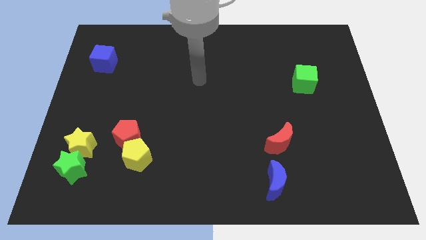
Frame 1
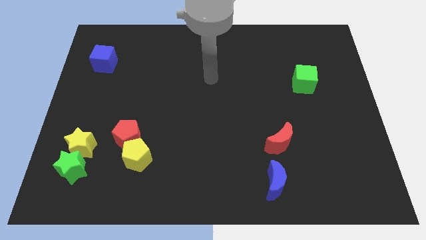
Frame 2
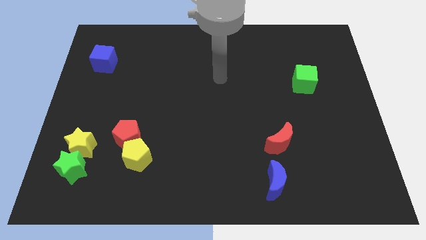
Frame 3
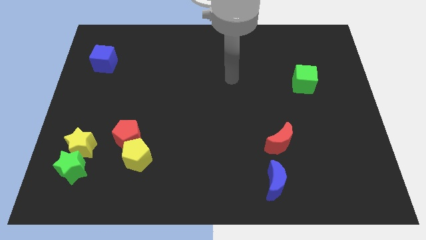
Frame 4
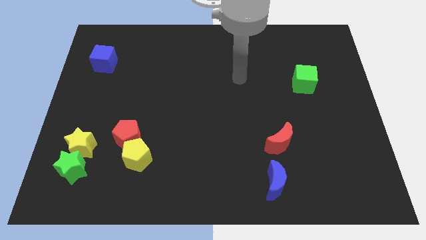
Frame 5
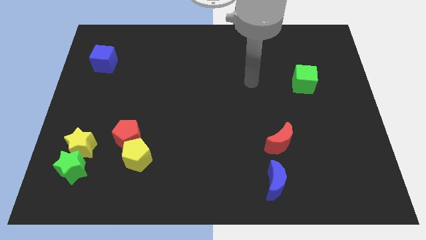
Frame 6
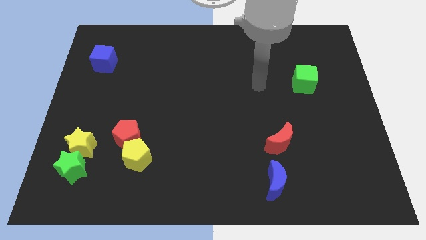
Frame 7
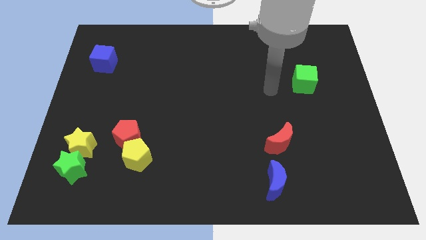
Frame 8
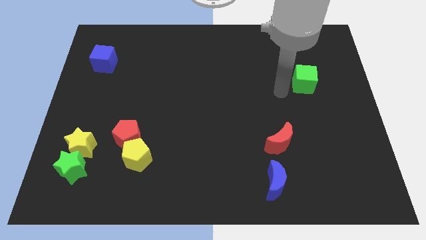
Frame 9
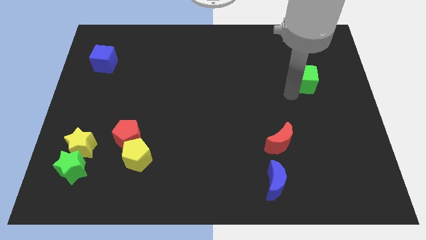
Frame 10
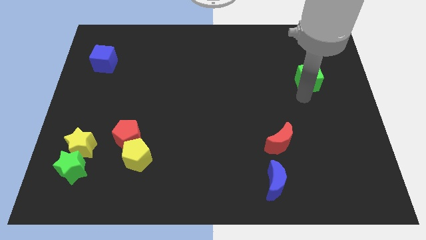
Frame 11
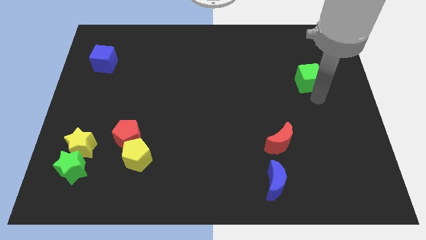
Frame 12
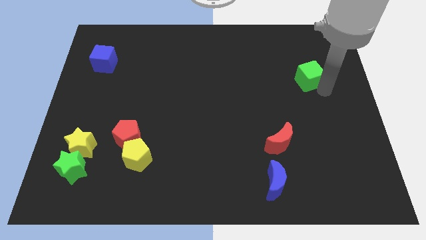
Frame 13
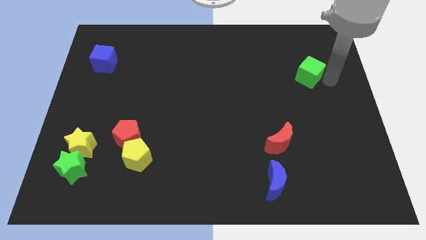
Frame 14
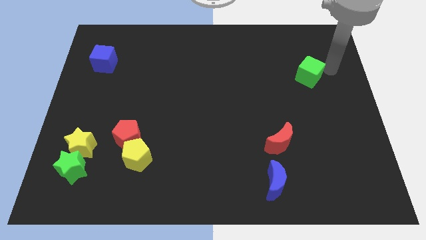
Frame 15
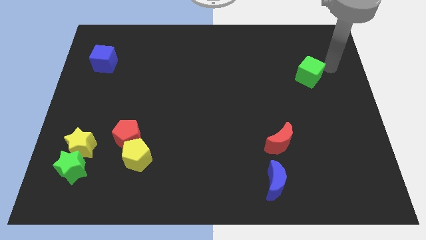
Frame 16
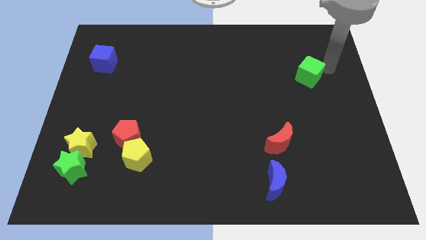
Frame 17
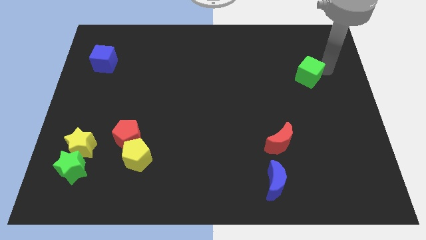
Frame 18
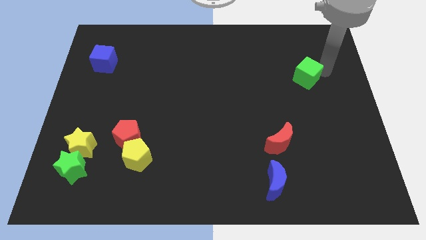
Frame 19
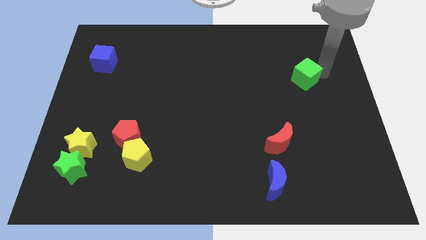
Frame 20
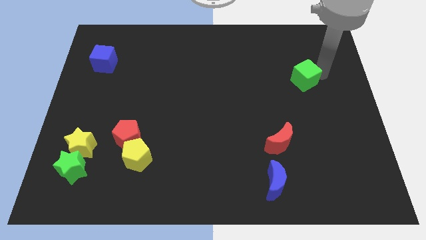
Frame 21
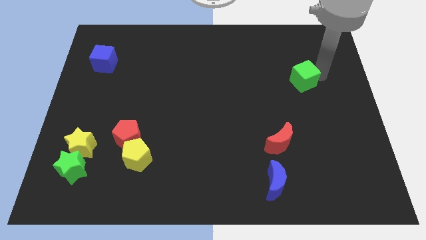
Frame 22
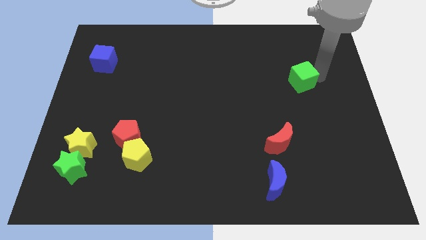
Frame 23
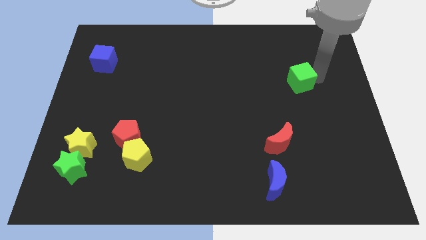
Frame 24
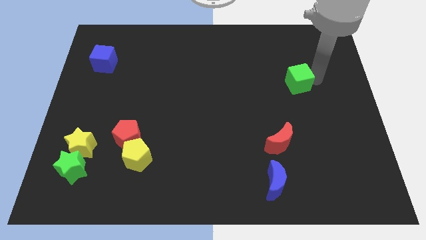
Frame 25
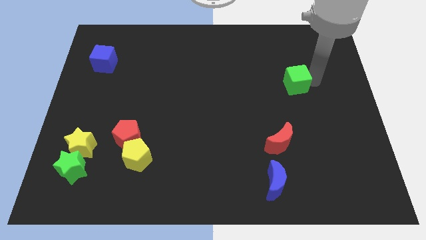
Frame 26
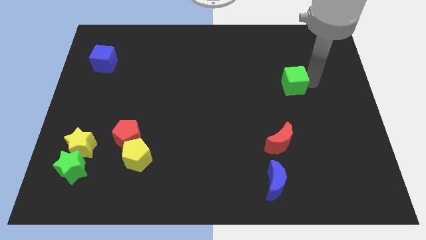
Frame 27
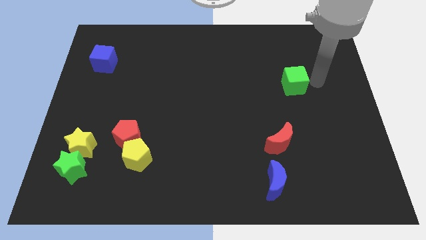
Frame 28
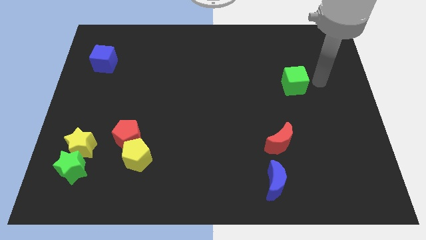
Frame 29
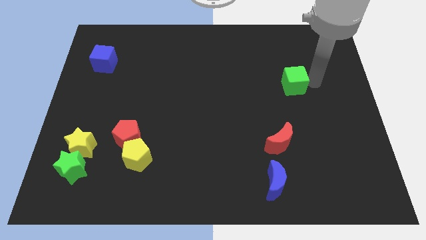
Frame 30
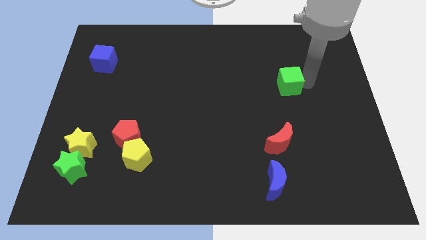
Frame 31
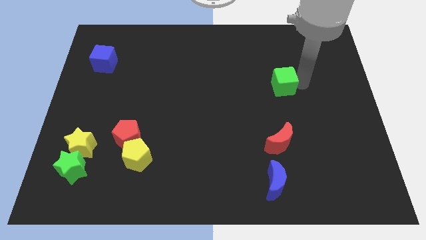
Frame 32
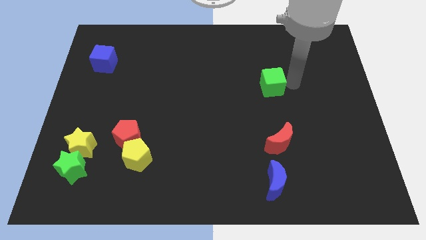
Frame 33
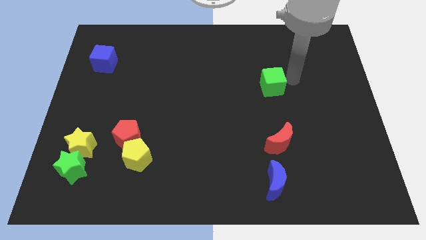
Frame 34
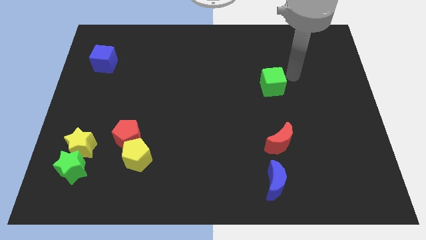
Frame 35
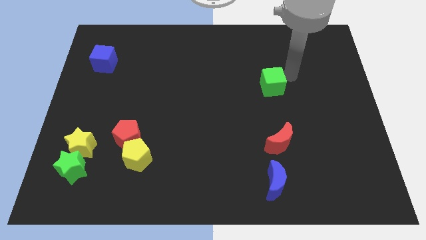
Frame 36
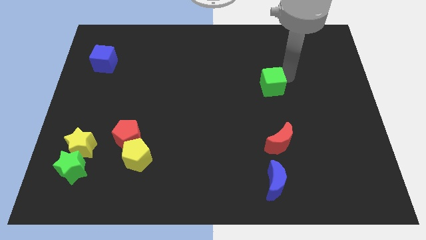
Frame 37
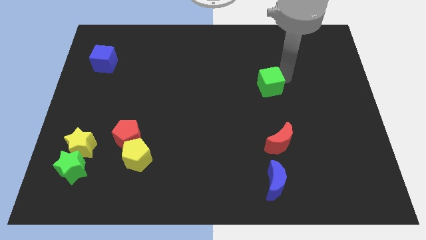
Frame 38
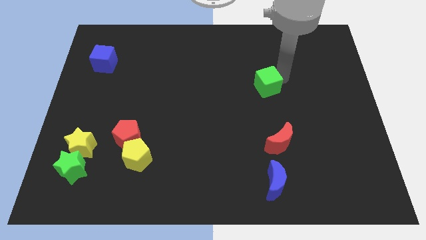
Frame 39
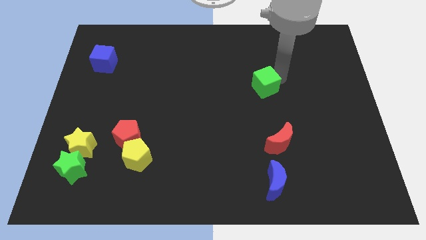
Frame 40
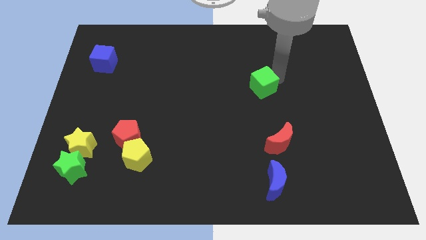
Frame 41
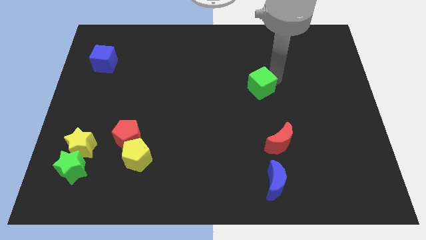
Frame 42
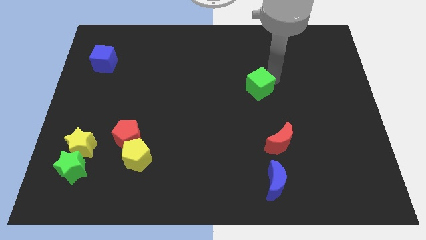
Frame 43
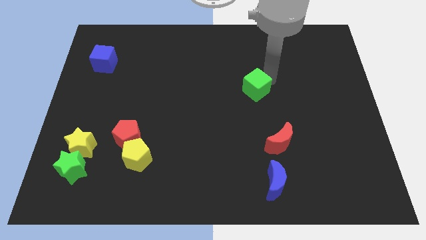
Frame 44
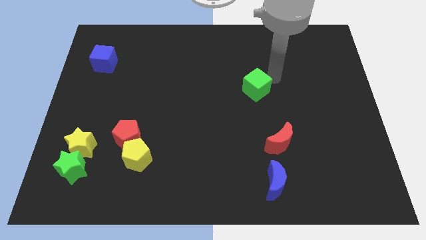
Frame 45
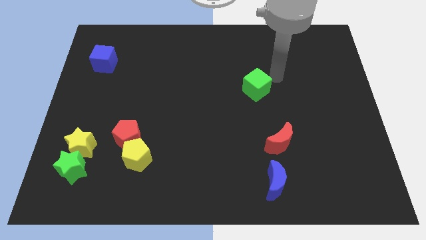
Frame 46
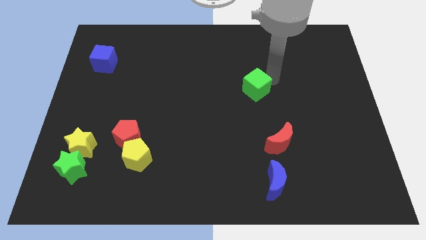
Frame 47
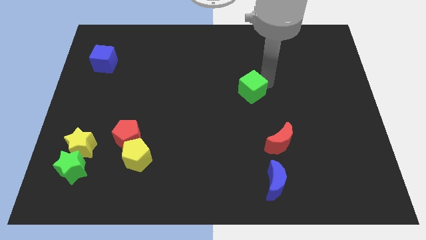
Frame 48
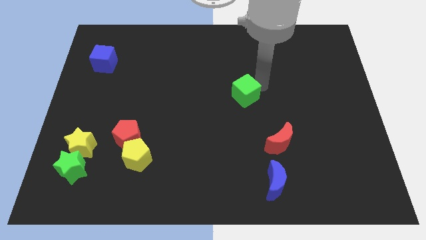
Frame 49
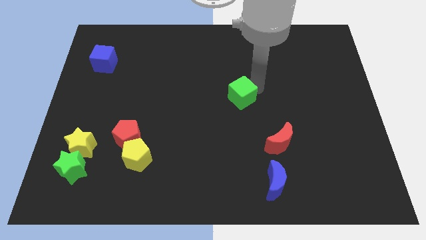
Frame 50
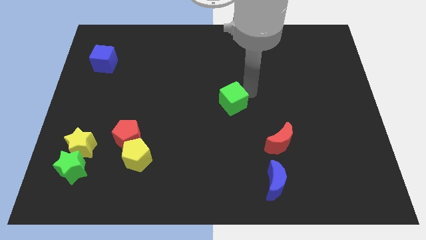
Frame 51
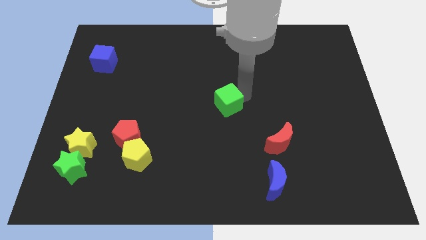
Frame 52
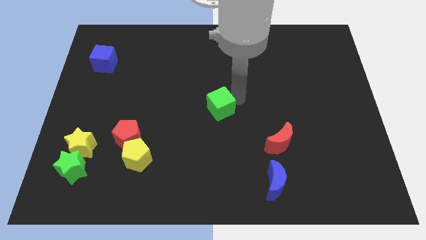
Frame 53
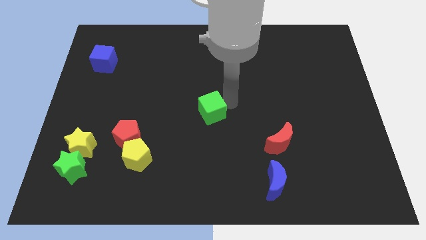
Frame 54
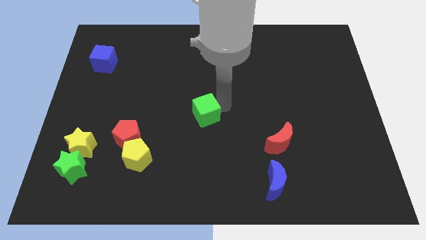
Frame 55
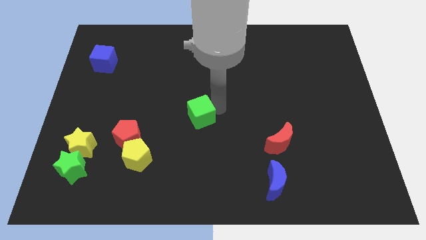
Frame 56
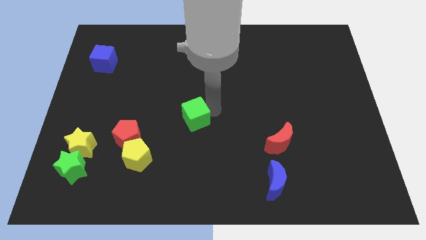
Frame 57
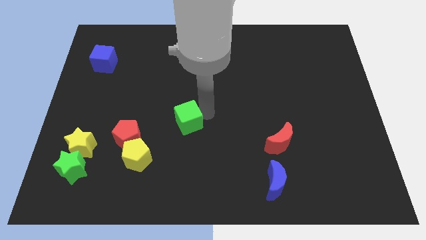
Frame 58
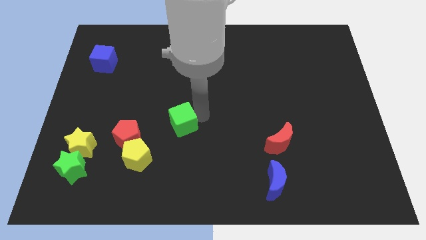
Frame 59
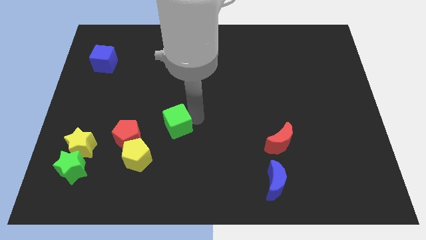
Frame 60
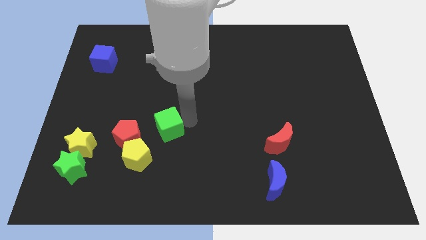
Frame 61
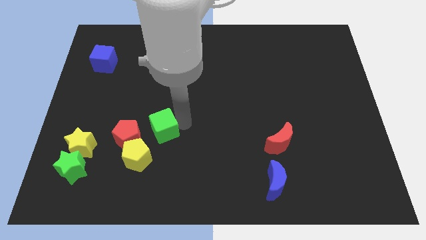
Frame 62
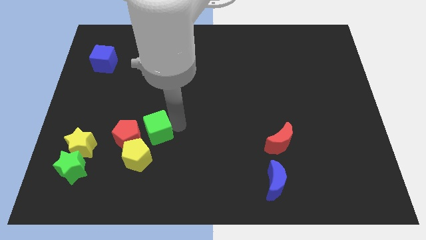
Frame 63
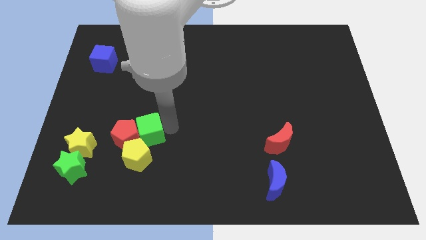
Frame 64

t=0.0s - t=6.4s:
move the green cube close to the red pentagon

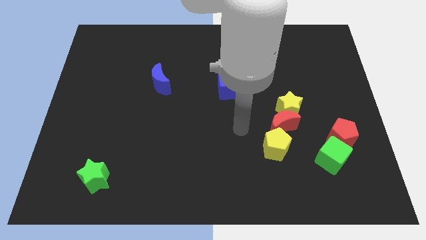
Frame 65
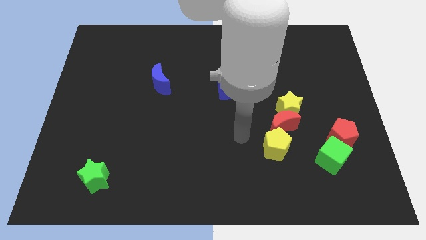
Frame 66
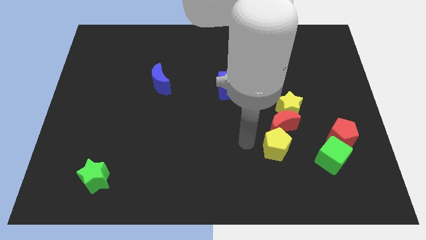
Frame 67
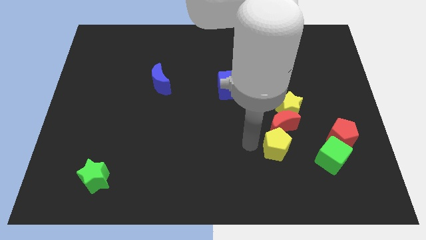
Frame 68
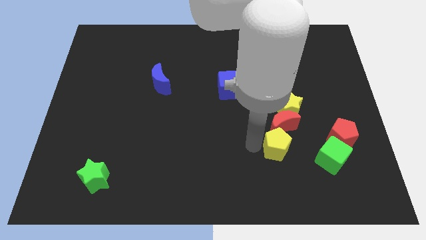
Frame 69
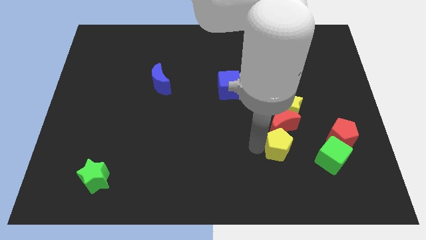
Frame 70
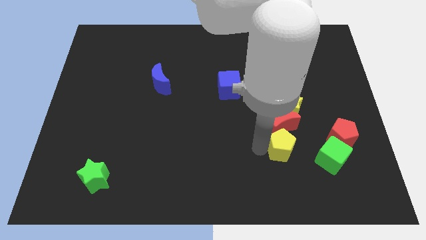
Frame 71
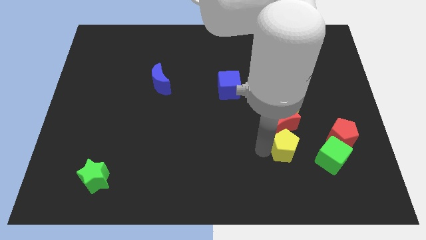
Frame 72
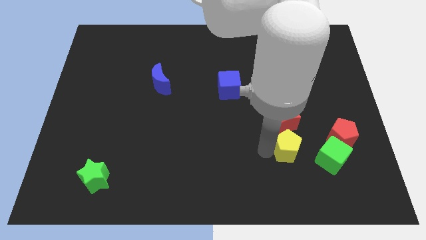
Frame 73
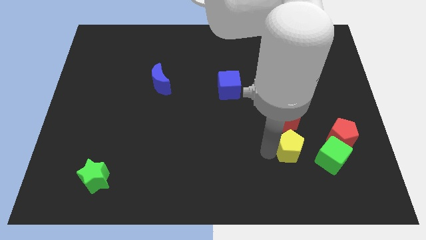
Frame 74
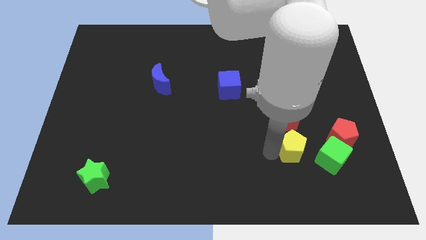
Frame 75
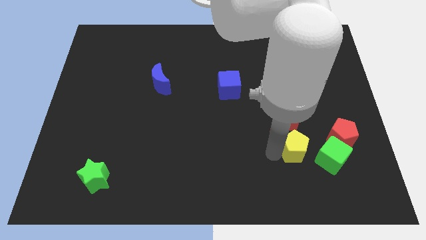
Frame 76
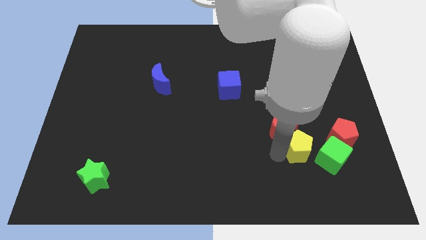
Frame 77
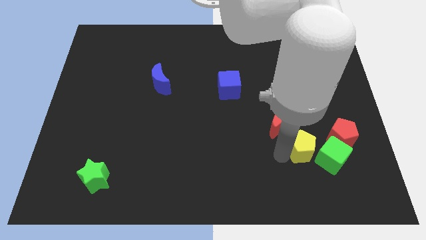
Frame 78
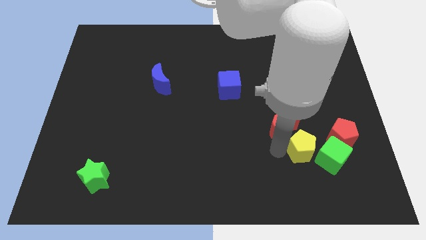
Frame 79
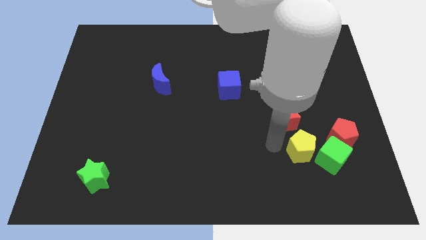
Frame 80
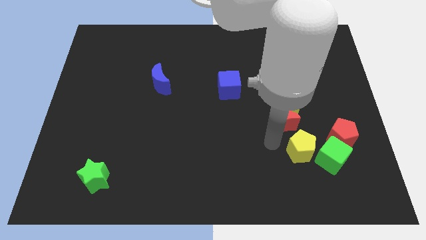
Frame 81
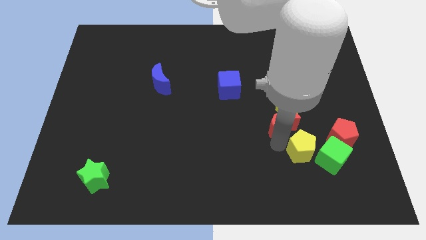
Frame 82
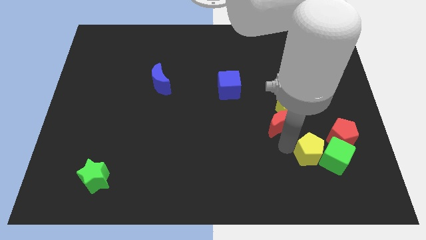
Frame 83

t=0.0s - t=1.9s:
slide the yellow pentagon next to the green cube
